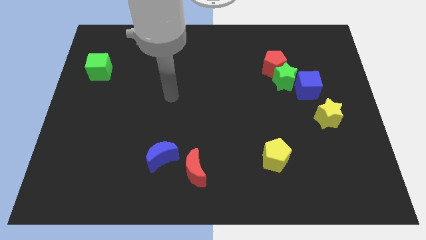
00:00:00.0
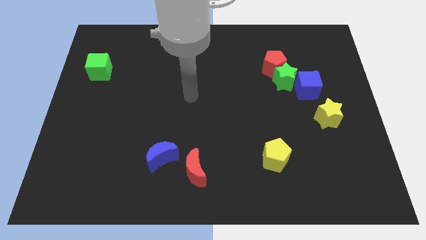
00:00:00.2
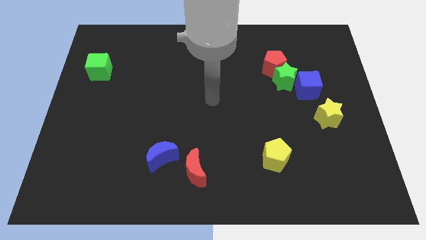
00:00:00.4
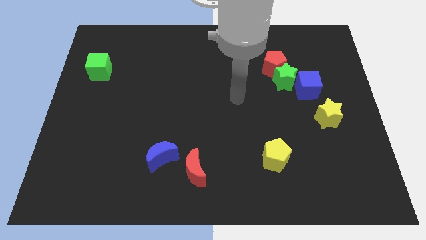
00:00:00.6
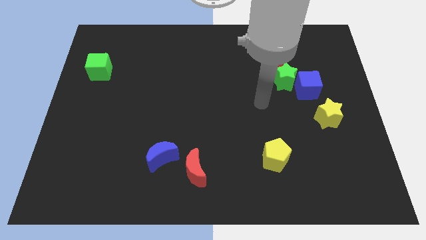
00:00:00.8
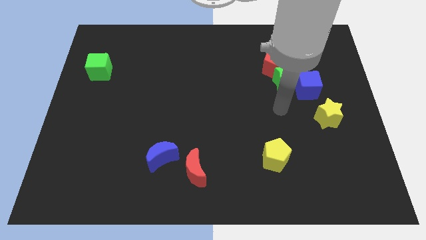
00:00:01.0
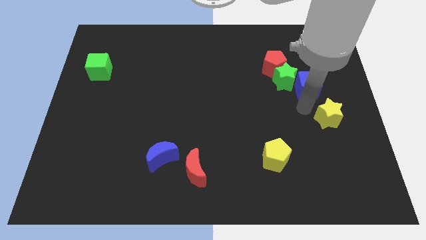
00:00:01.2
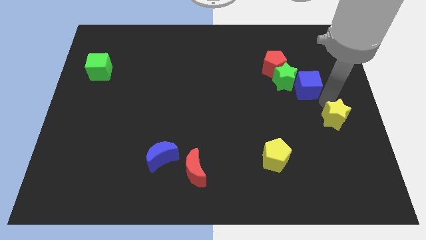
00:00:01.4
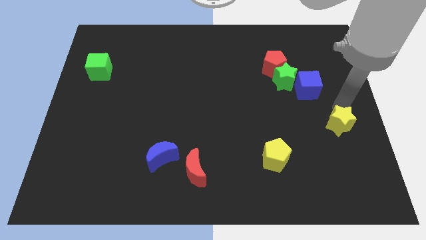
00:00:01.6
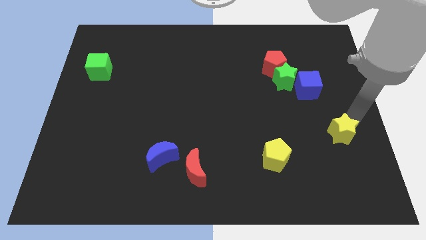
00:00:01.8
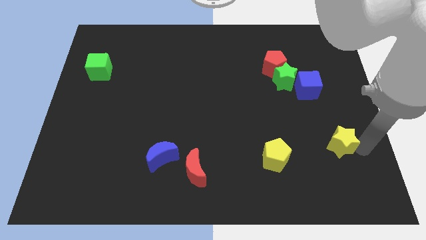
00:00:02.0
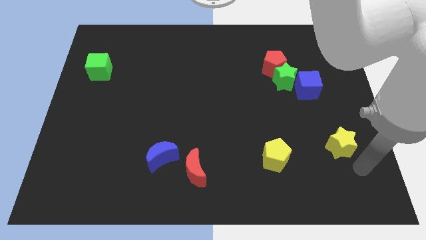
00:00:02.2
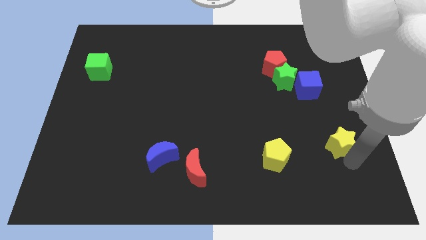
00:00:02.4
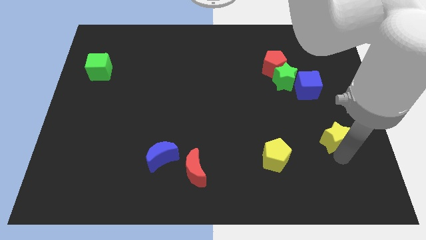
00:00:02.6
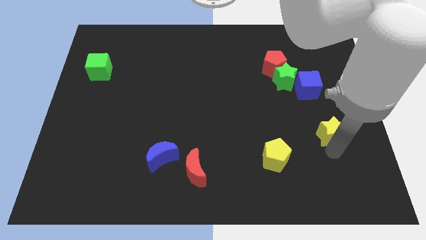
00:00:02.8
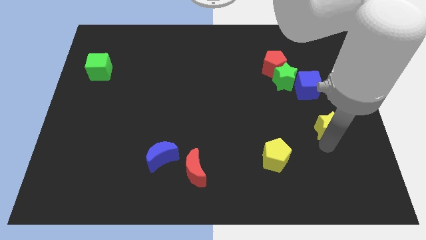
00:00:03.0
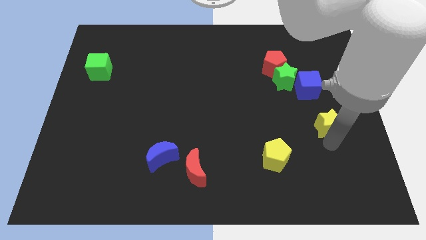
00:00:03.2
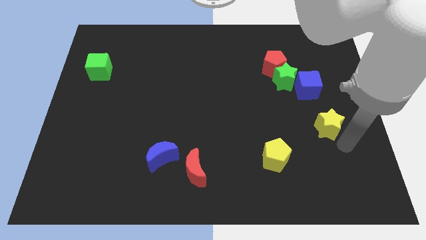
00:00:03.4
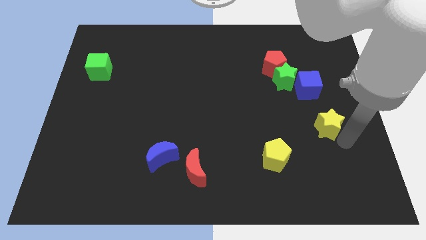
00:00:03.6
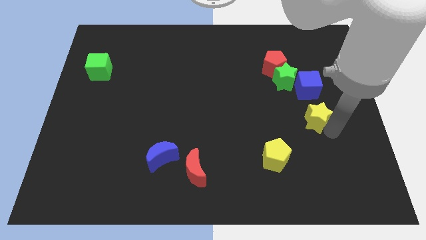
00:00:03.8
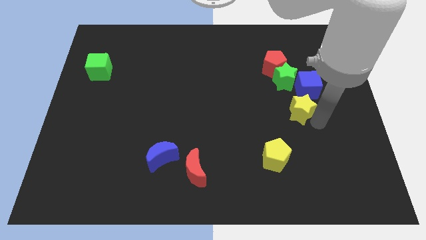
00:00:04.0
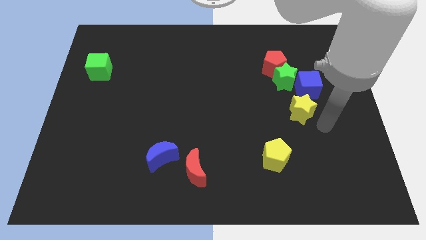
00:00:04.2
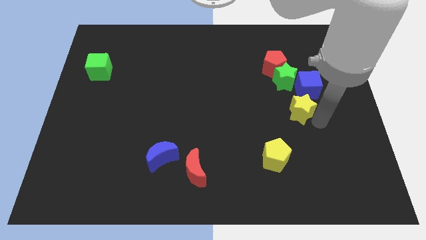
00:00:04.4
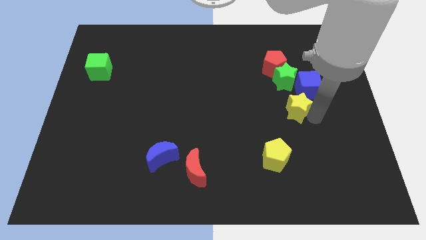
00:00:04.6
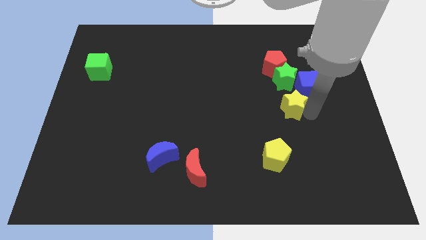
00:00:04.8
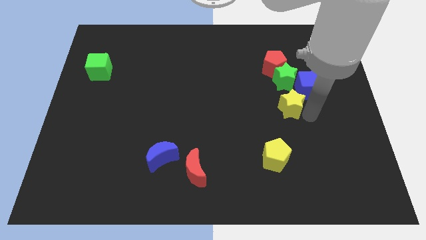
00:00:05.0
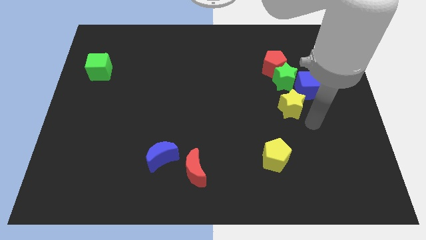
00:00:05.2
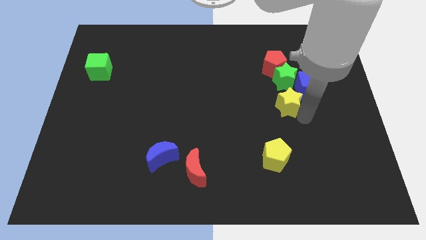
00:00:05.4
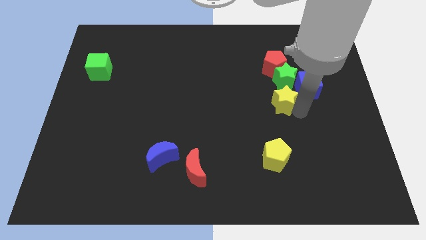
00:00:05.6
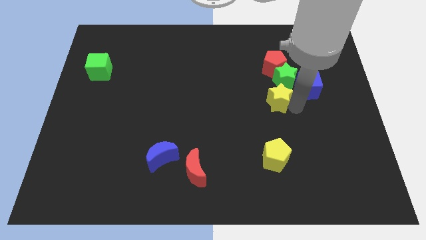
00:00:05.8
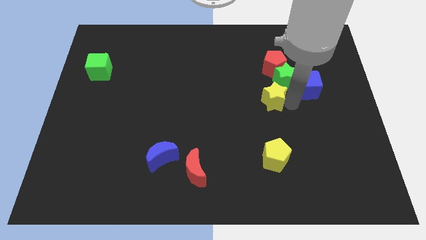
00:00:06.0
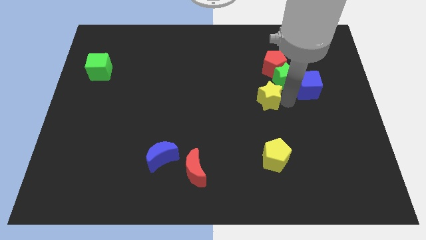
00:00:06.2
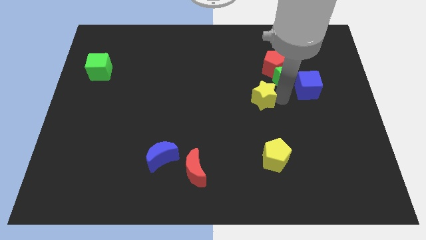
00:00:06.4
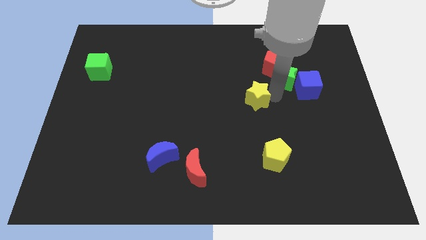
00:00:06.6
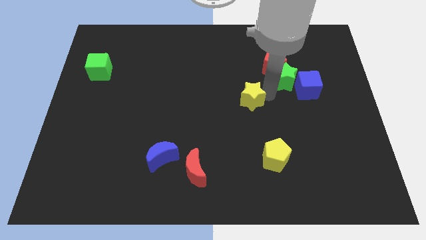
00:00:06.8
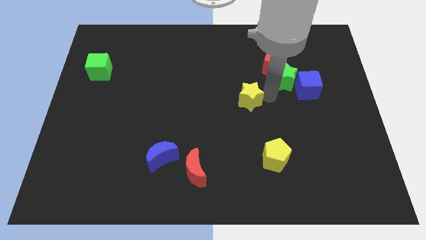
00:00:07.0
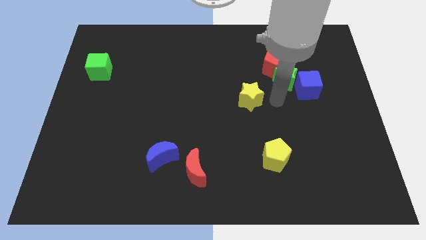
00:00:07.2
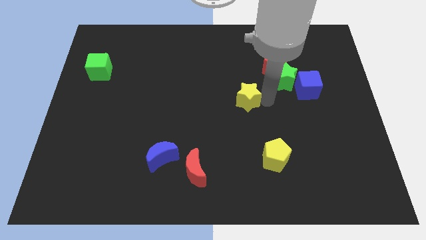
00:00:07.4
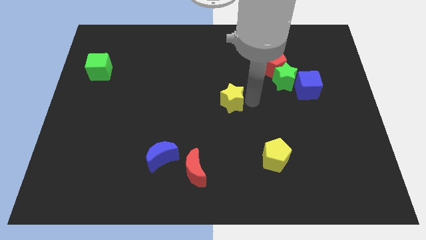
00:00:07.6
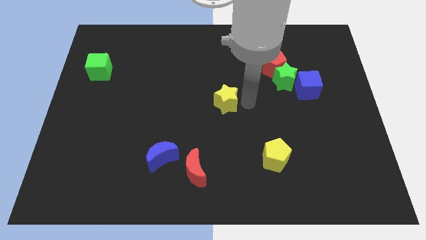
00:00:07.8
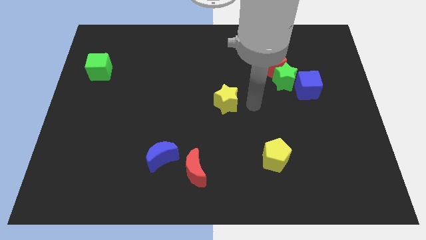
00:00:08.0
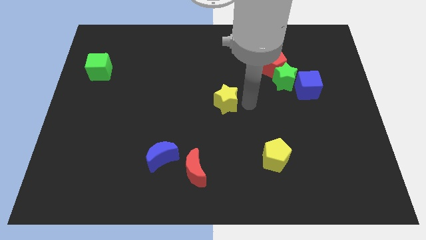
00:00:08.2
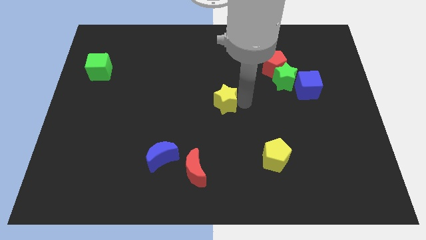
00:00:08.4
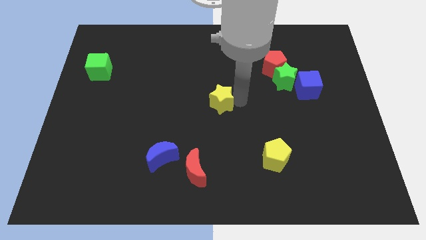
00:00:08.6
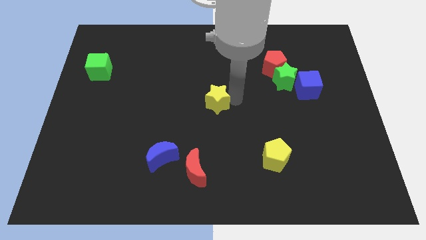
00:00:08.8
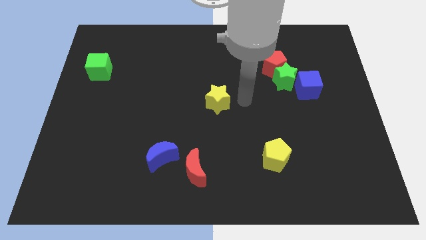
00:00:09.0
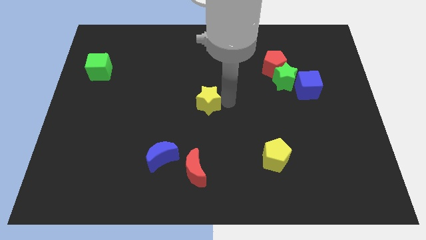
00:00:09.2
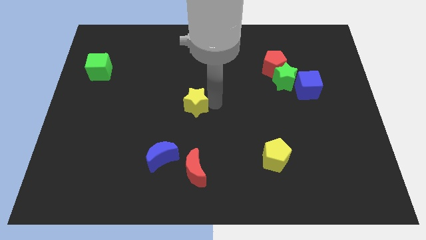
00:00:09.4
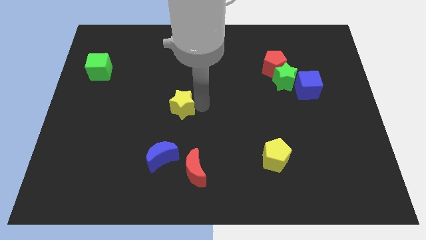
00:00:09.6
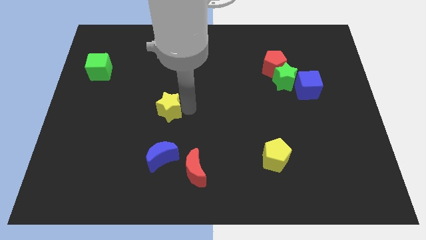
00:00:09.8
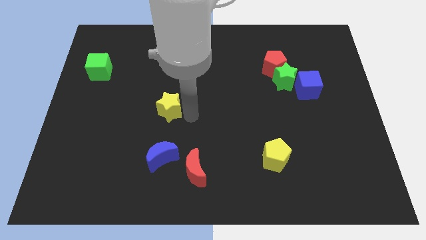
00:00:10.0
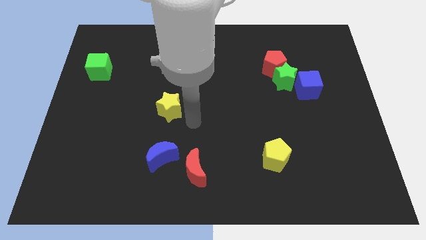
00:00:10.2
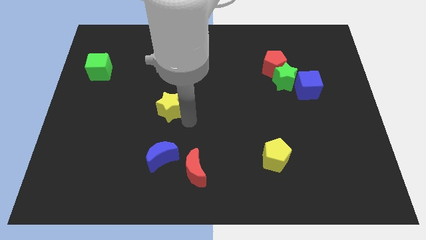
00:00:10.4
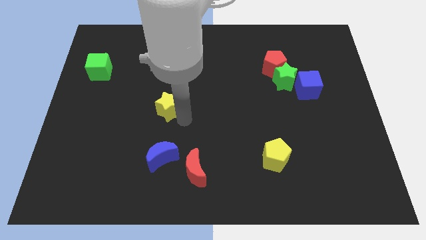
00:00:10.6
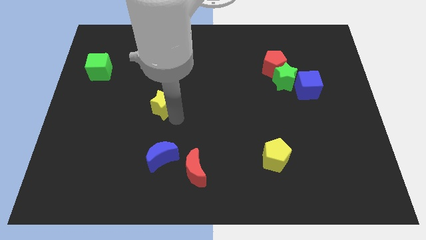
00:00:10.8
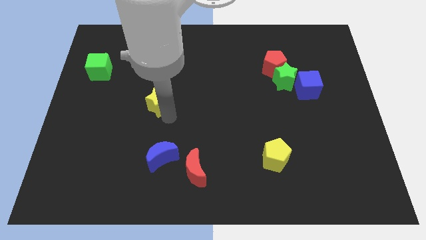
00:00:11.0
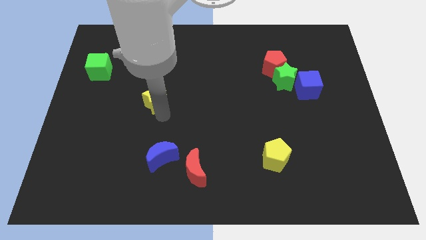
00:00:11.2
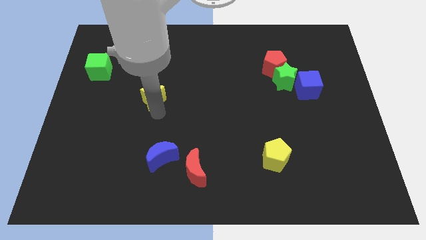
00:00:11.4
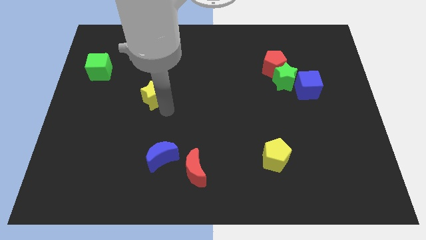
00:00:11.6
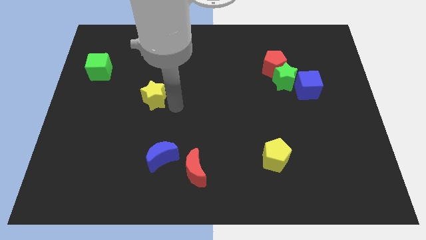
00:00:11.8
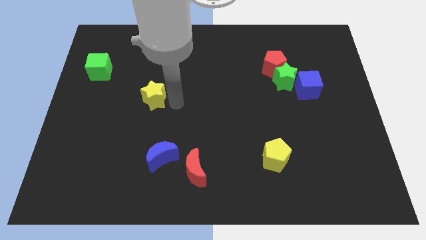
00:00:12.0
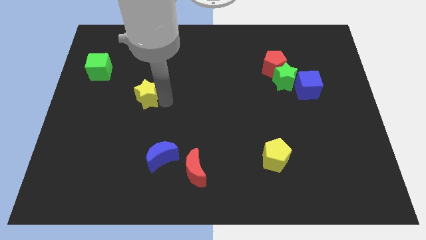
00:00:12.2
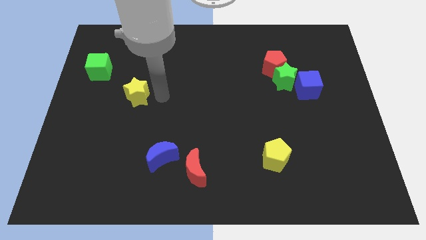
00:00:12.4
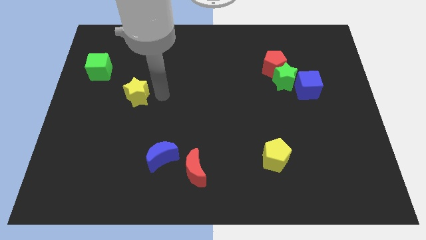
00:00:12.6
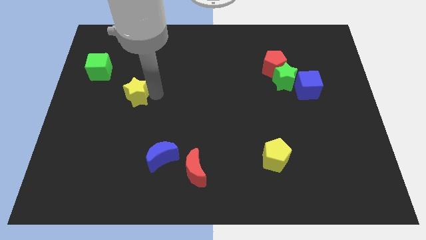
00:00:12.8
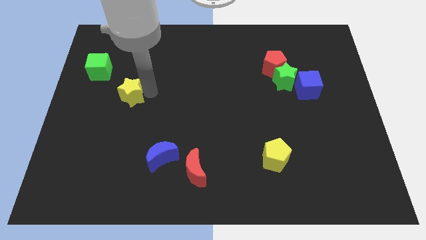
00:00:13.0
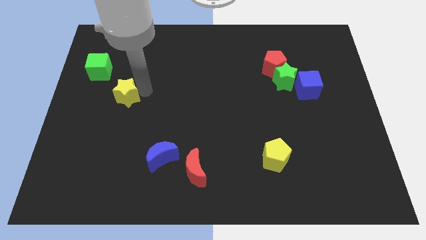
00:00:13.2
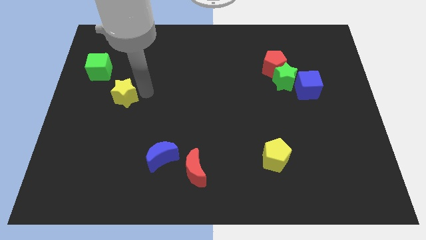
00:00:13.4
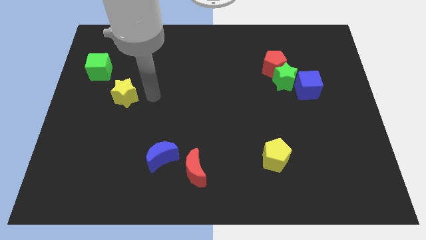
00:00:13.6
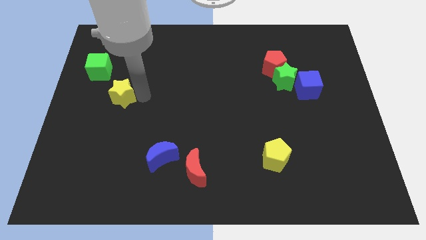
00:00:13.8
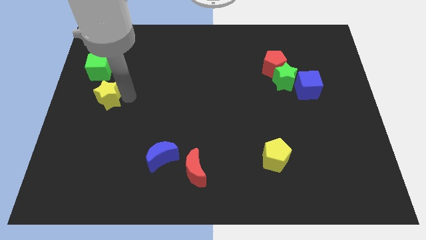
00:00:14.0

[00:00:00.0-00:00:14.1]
put the yellow star to the left side of the board
